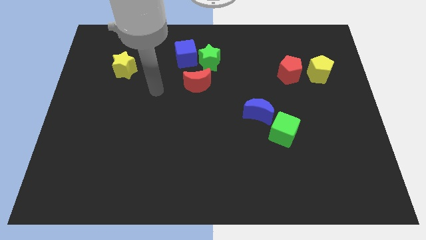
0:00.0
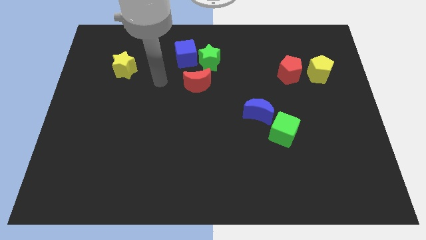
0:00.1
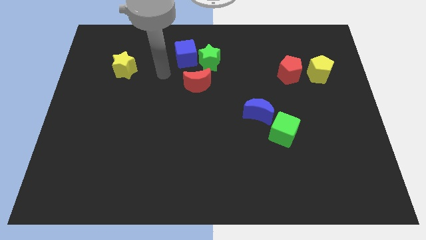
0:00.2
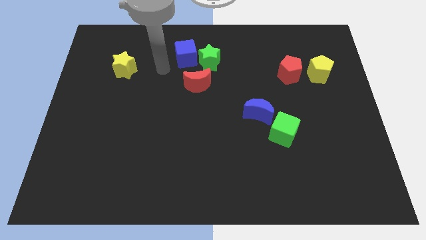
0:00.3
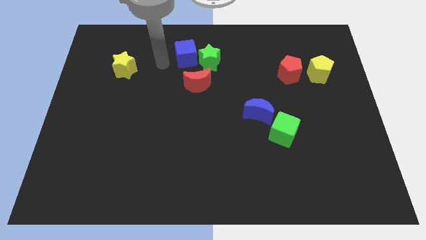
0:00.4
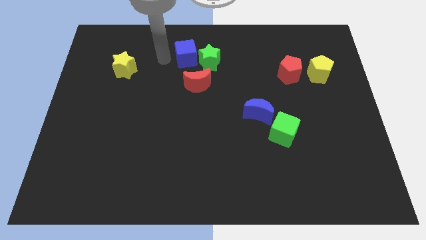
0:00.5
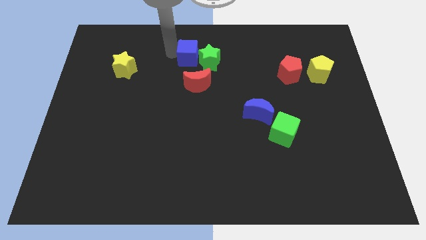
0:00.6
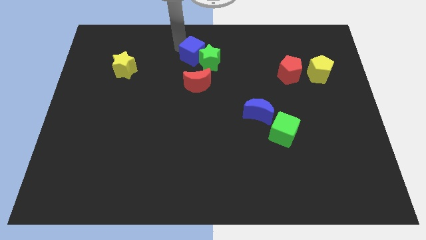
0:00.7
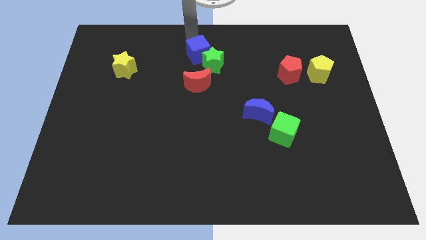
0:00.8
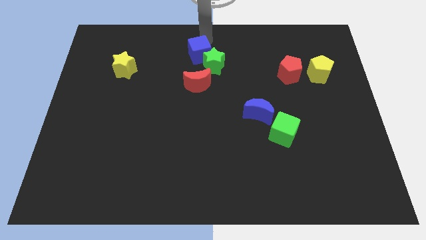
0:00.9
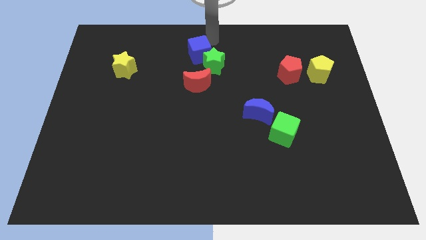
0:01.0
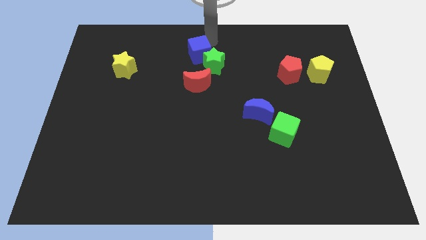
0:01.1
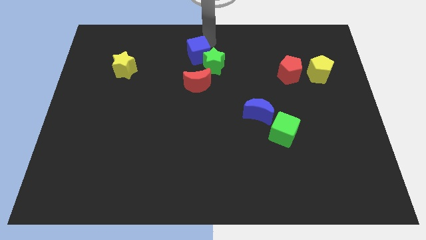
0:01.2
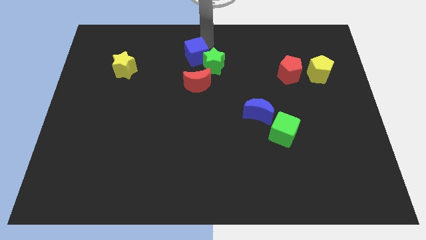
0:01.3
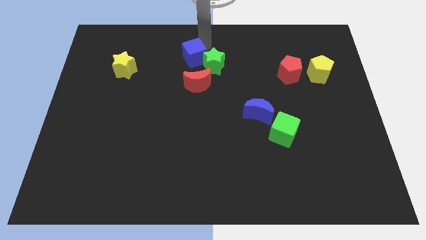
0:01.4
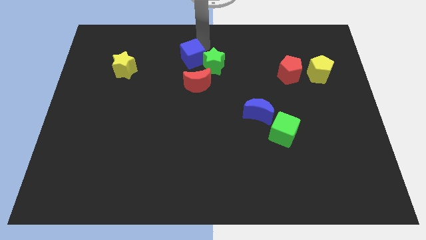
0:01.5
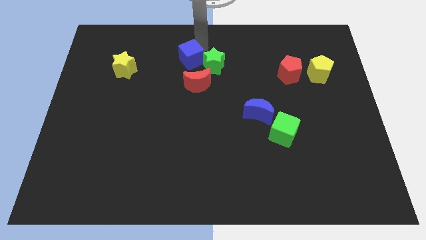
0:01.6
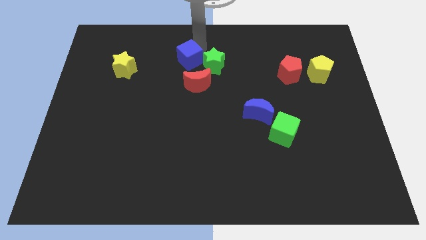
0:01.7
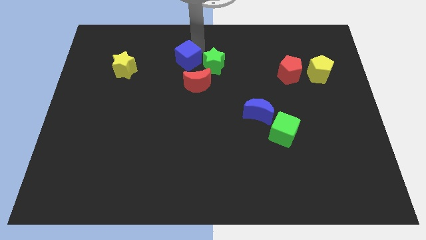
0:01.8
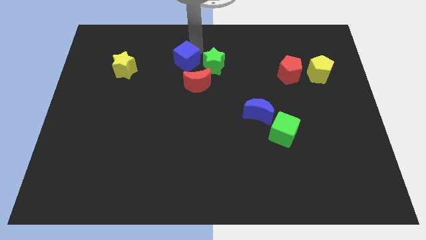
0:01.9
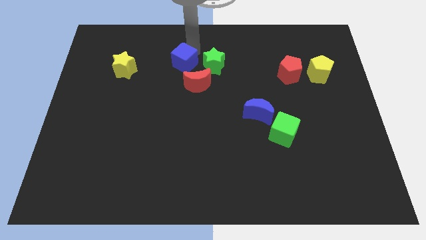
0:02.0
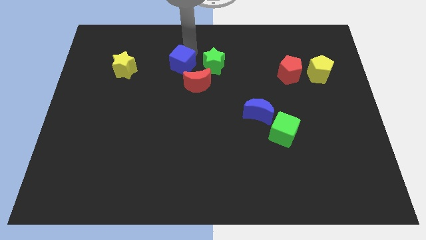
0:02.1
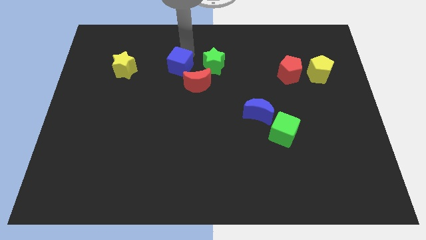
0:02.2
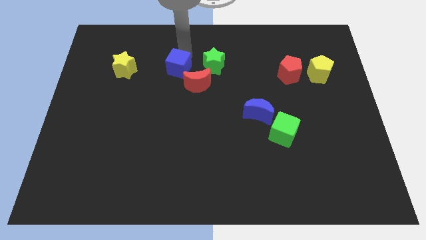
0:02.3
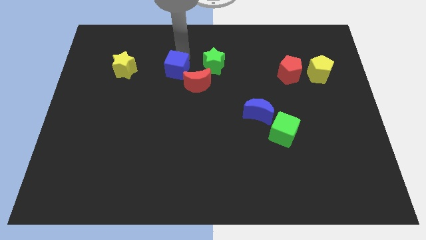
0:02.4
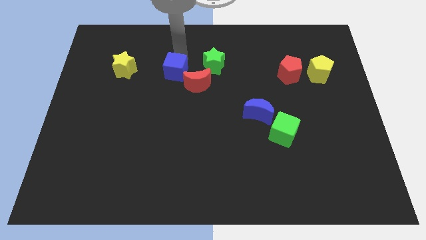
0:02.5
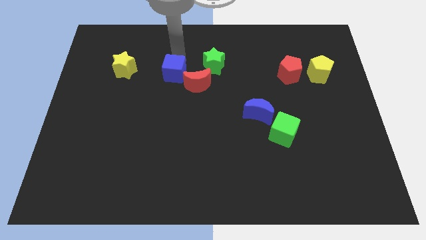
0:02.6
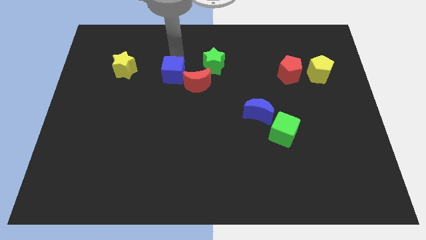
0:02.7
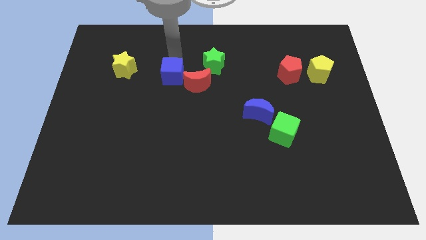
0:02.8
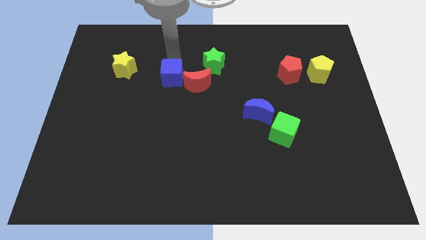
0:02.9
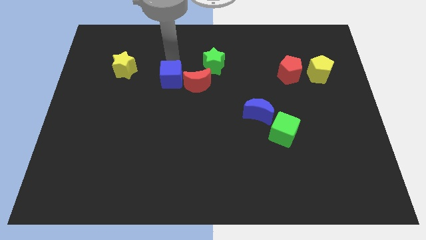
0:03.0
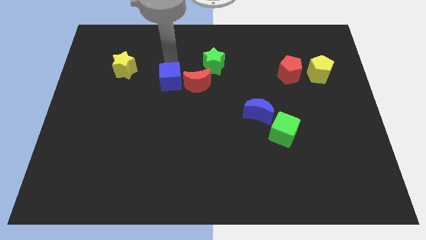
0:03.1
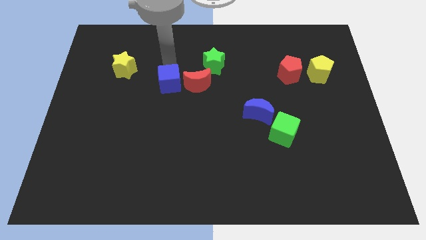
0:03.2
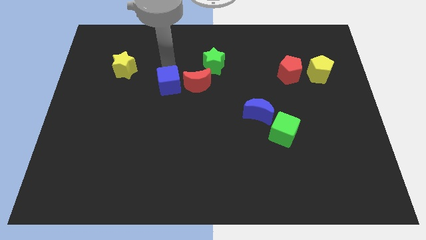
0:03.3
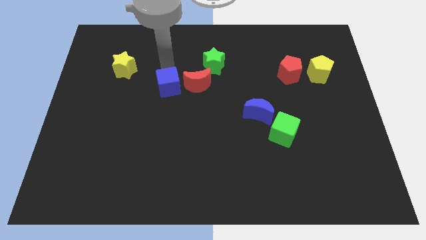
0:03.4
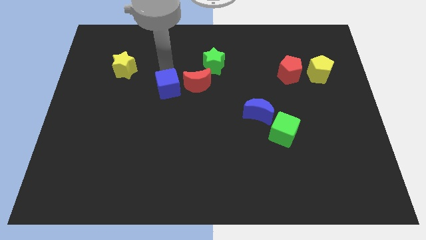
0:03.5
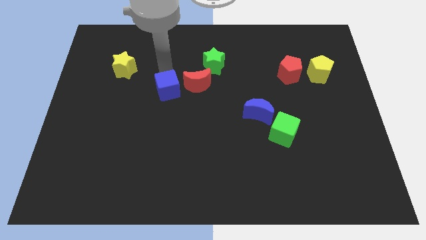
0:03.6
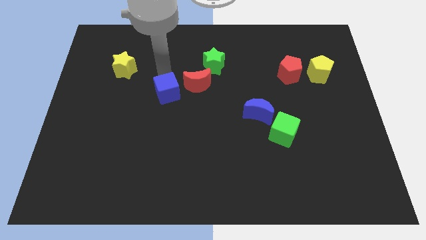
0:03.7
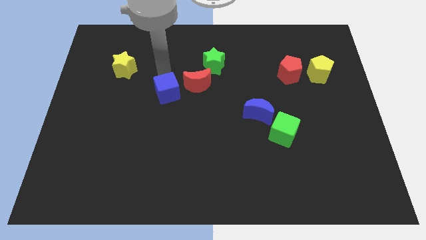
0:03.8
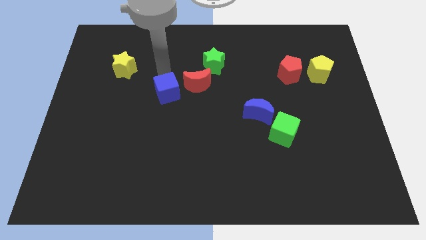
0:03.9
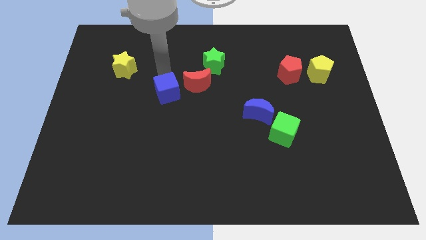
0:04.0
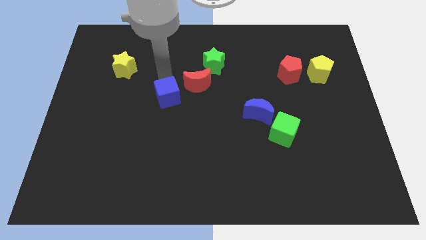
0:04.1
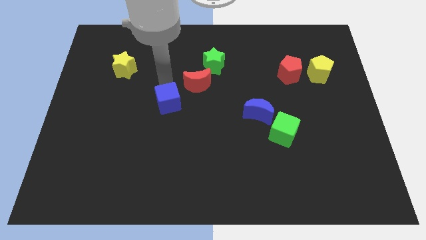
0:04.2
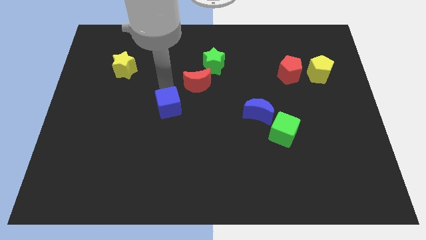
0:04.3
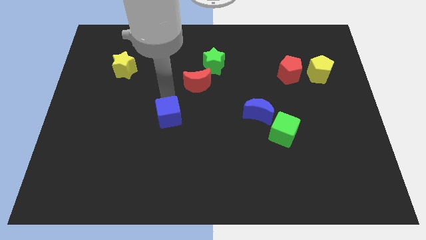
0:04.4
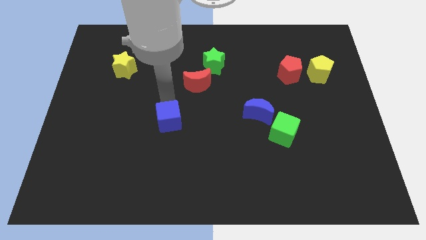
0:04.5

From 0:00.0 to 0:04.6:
push the blue cube down

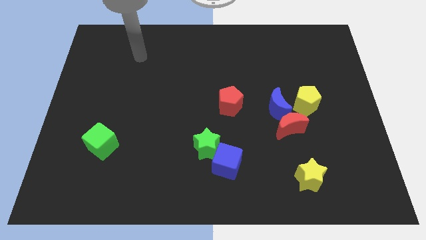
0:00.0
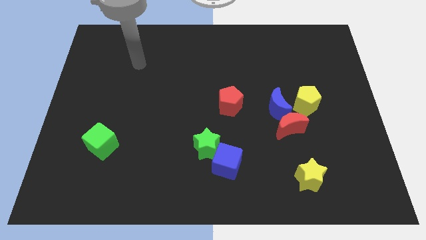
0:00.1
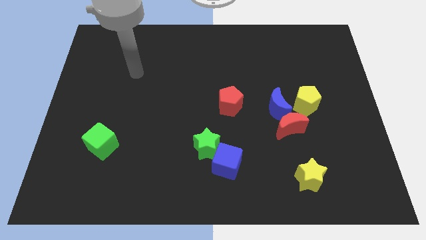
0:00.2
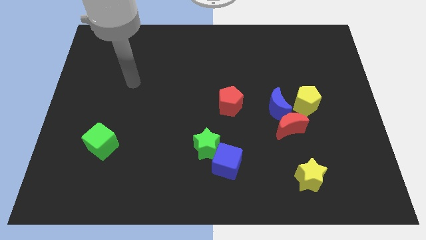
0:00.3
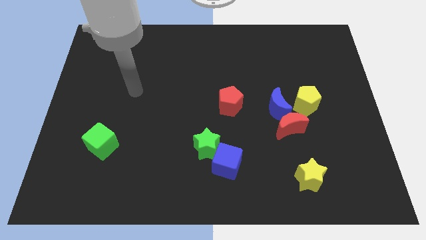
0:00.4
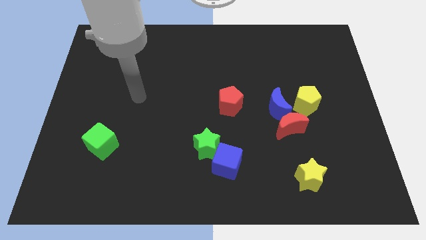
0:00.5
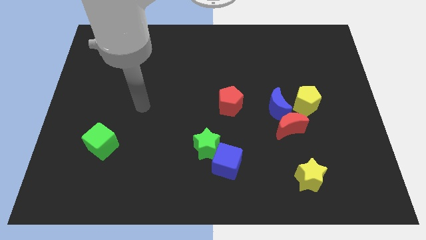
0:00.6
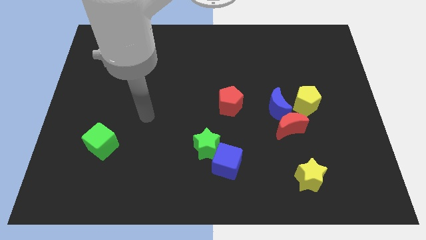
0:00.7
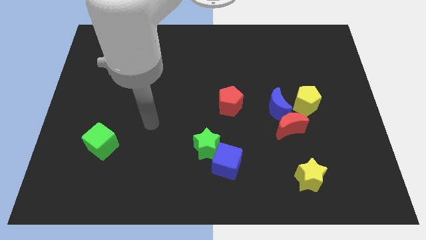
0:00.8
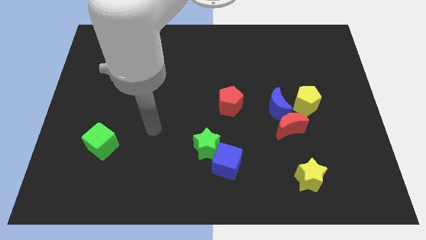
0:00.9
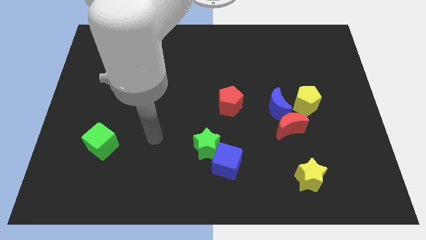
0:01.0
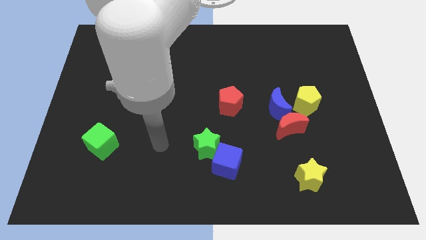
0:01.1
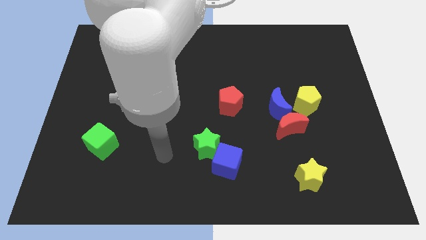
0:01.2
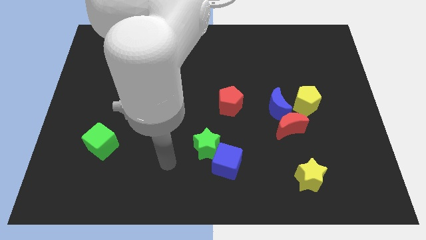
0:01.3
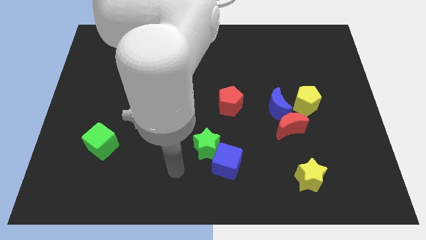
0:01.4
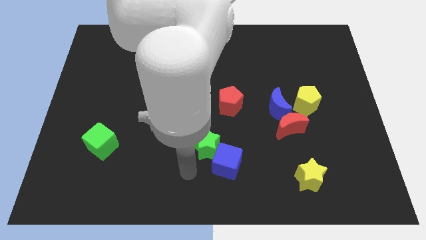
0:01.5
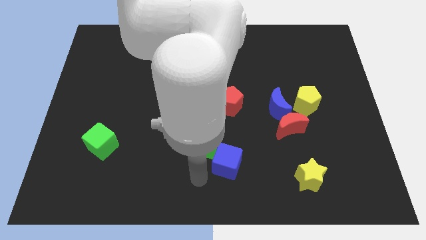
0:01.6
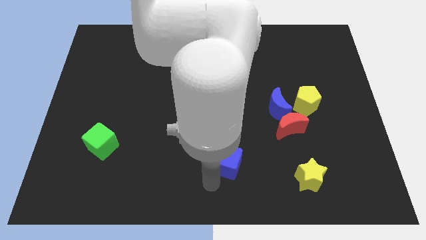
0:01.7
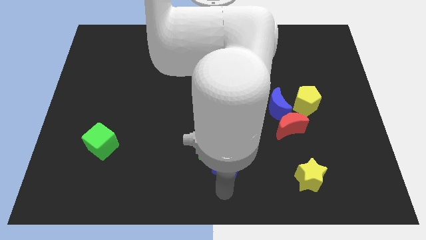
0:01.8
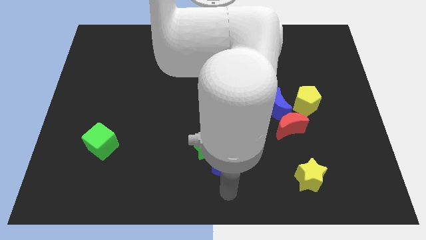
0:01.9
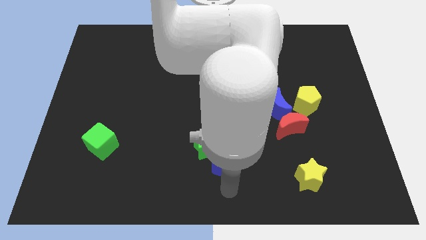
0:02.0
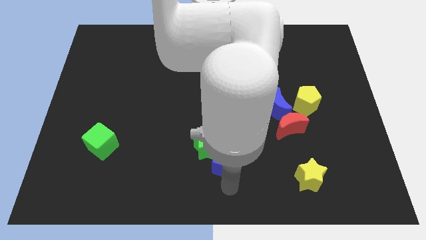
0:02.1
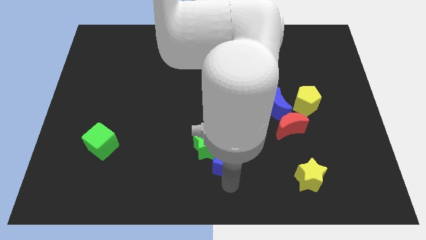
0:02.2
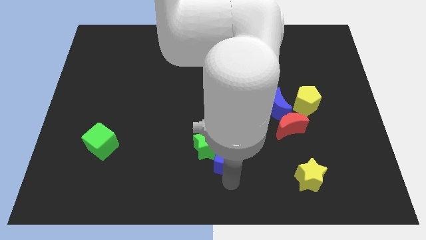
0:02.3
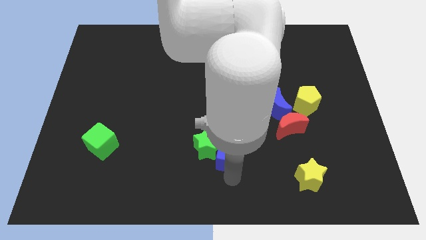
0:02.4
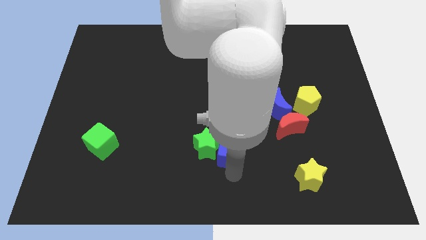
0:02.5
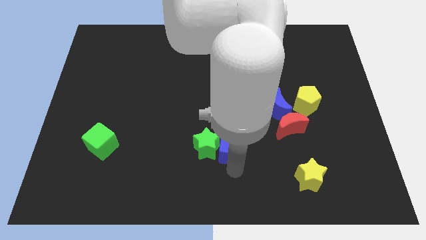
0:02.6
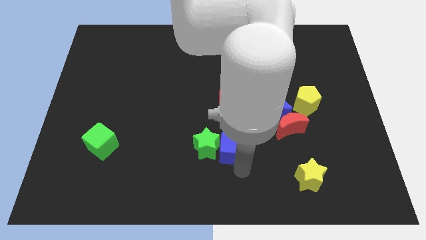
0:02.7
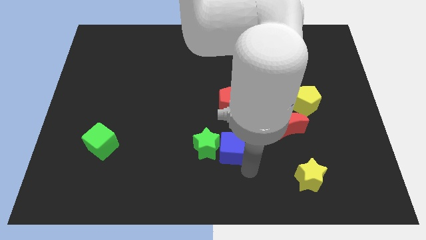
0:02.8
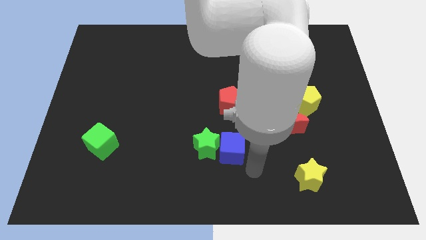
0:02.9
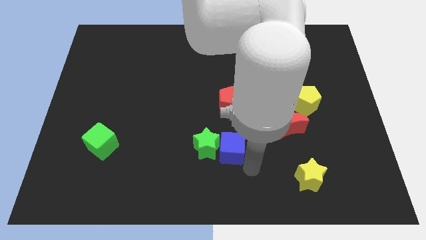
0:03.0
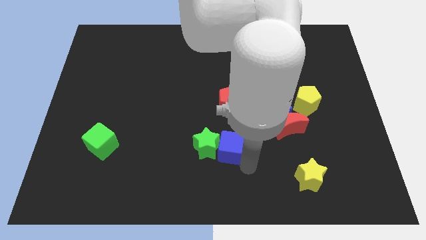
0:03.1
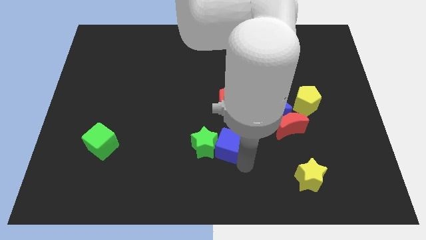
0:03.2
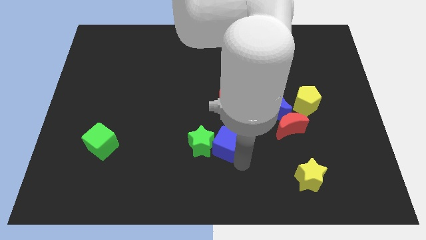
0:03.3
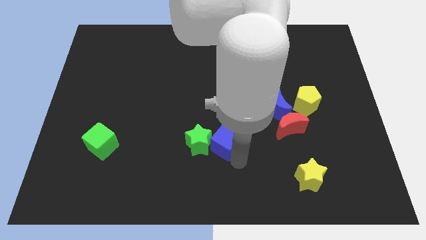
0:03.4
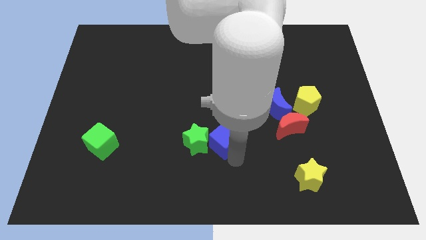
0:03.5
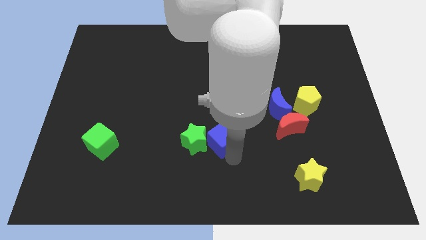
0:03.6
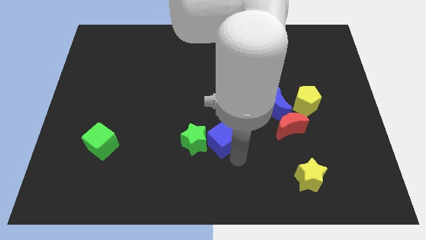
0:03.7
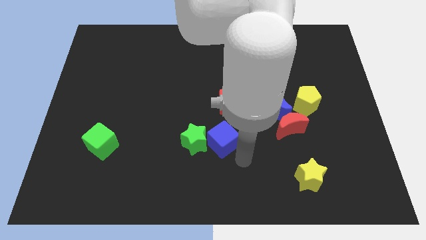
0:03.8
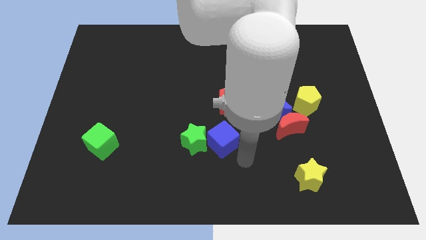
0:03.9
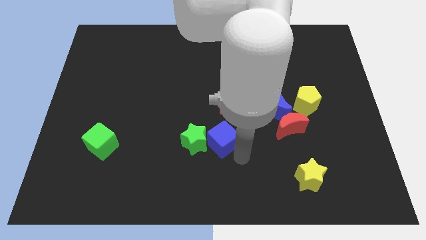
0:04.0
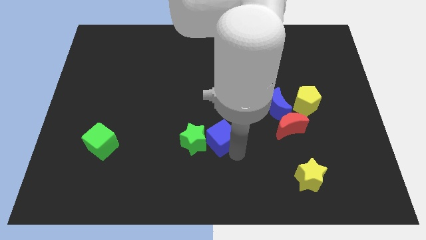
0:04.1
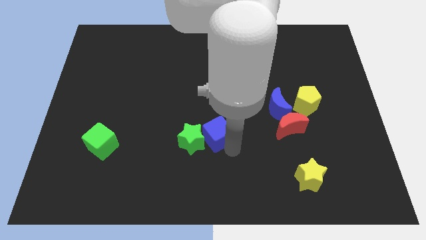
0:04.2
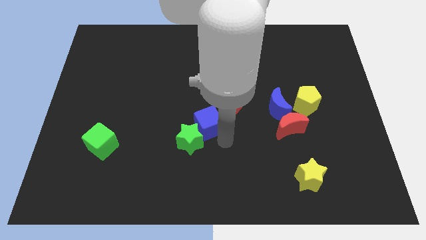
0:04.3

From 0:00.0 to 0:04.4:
slightly slide the blue cube diagonally up and left
